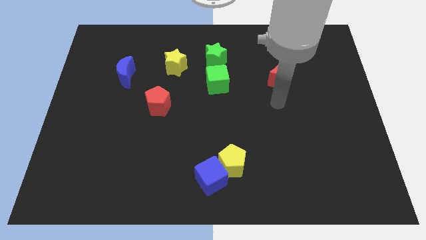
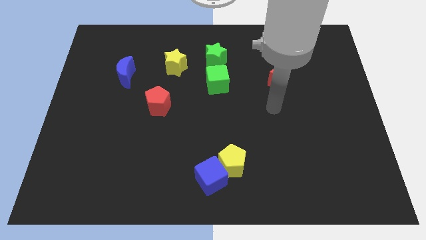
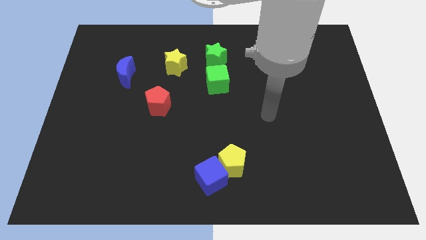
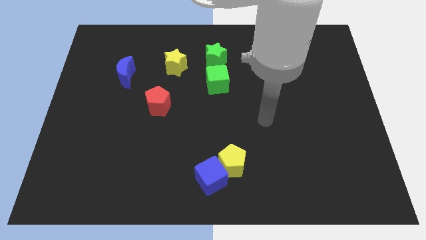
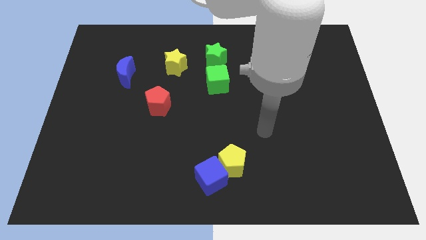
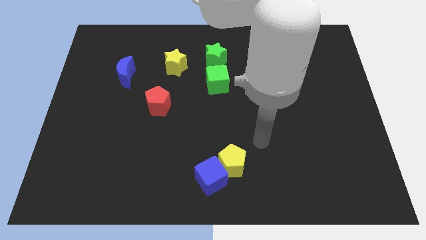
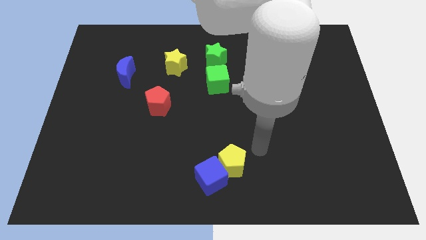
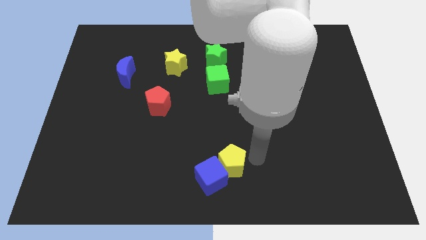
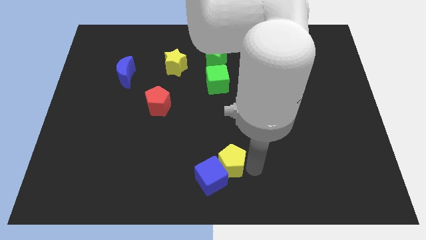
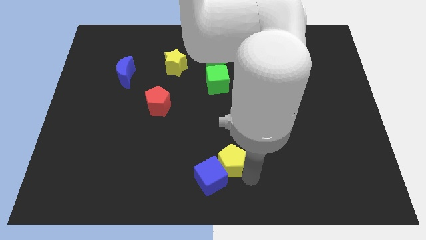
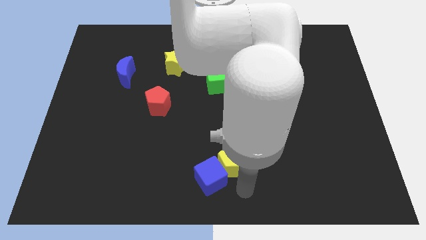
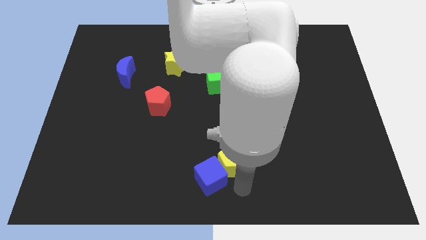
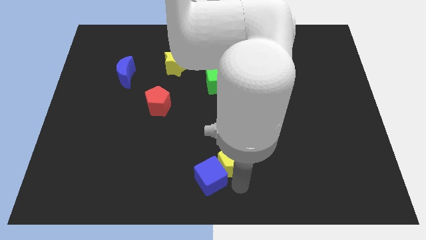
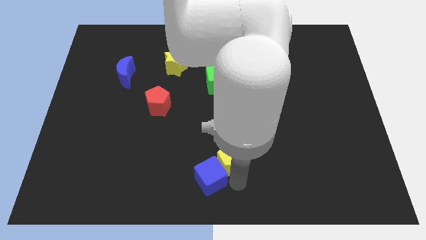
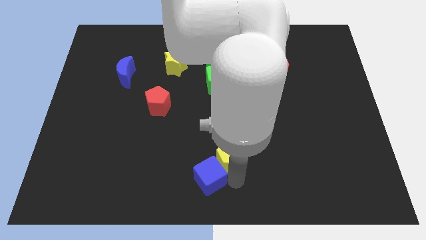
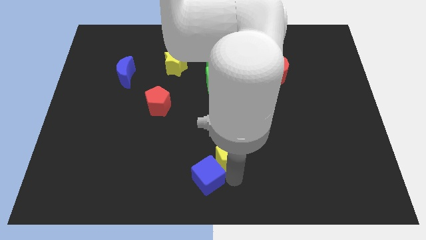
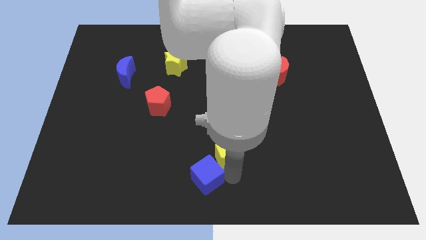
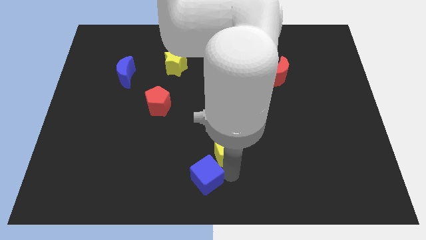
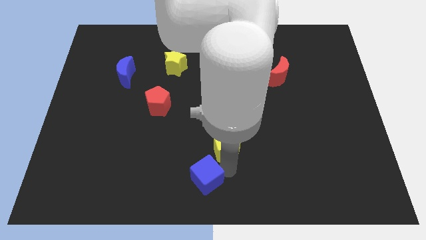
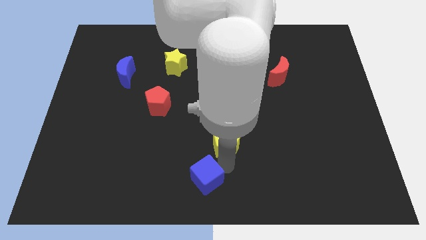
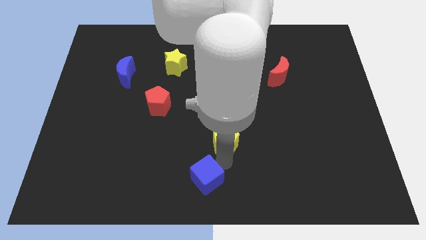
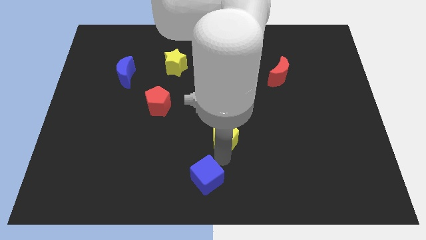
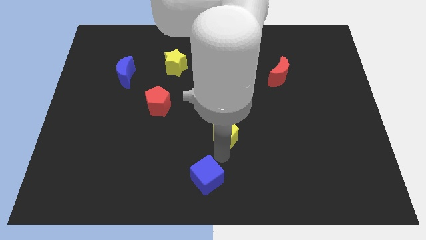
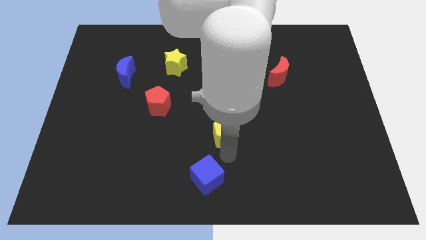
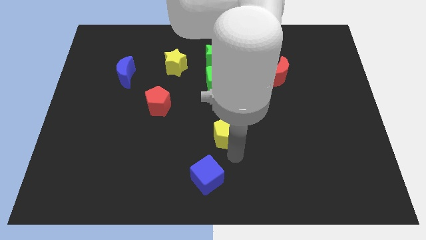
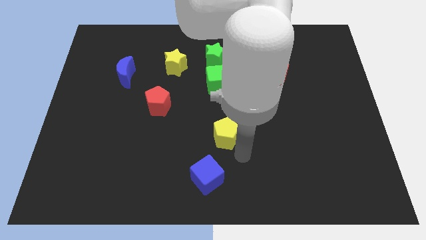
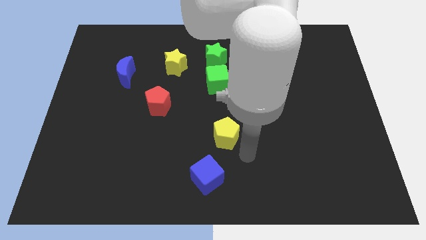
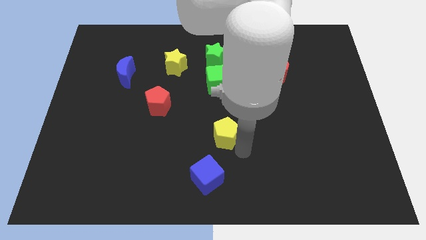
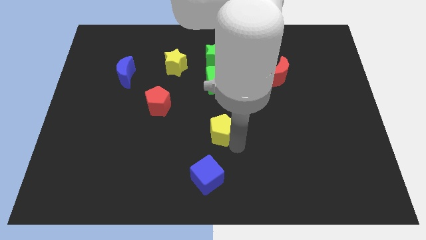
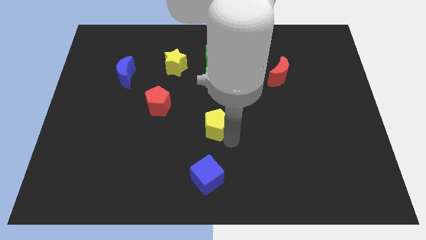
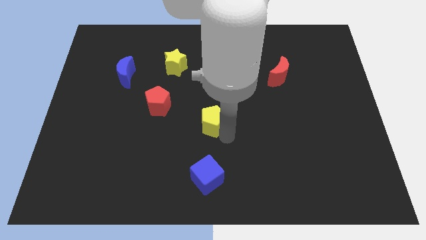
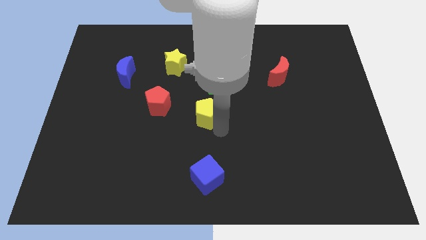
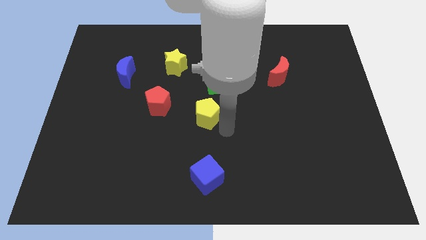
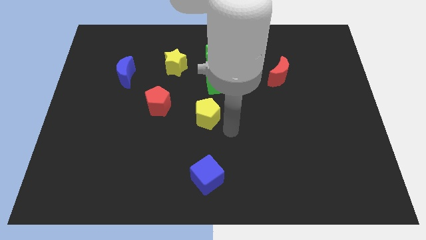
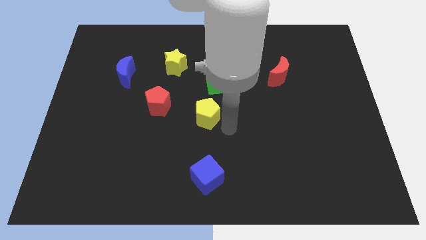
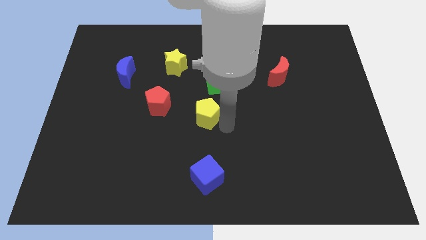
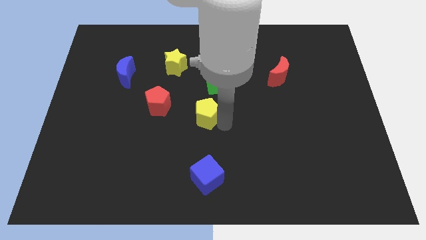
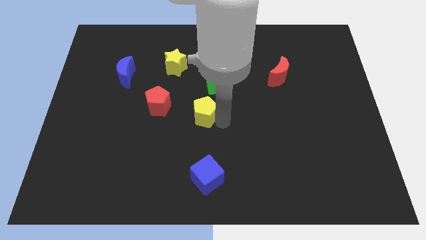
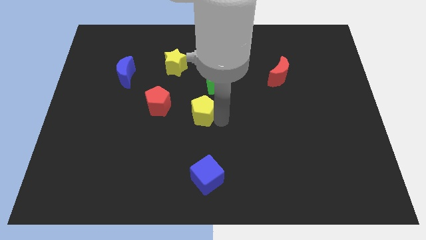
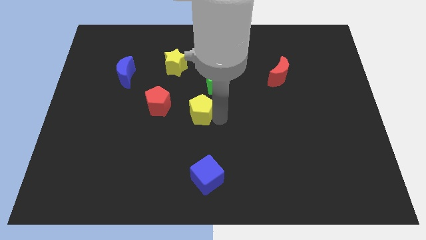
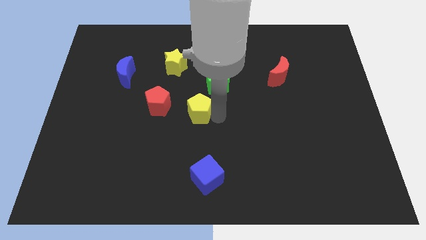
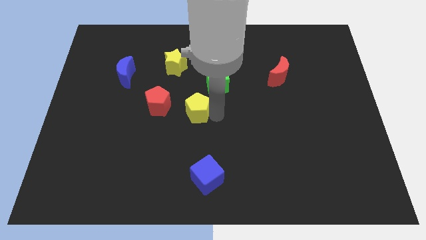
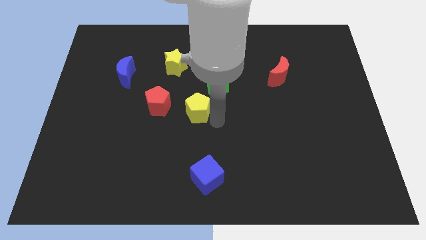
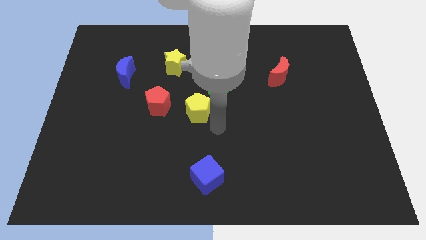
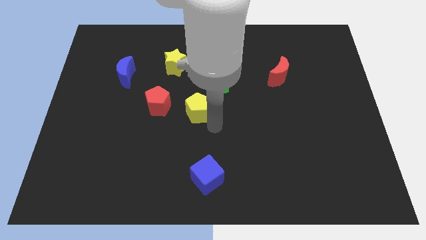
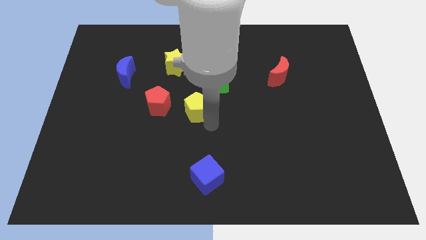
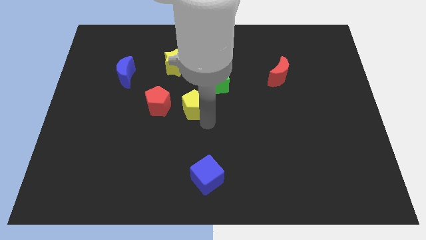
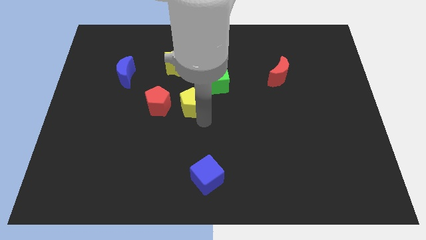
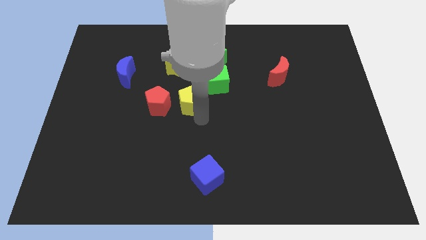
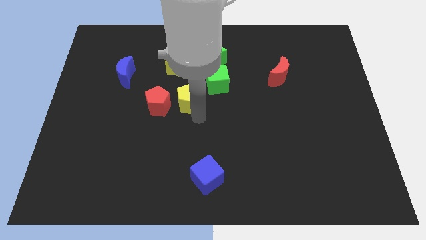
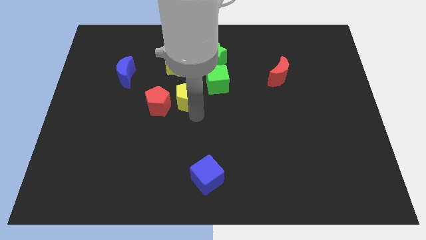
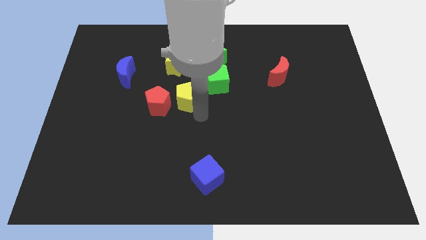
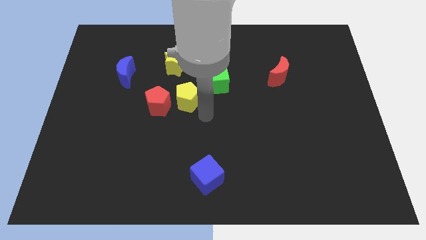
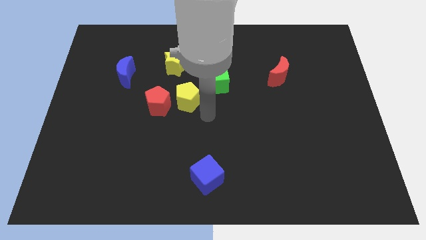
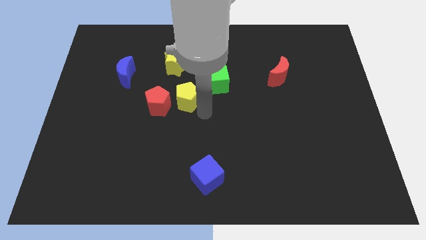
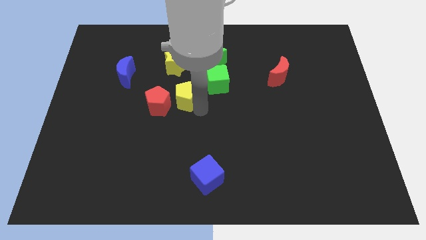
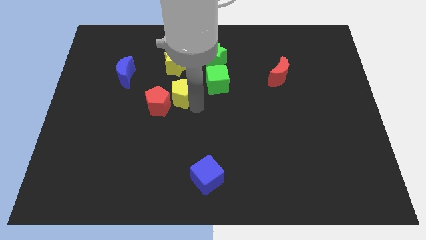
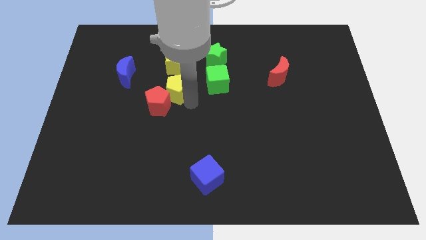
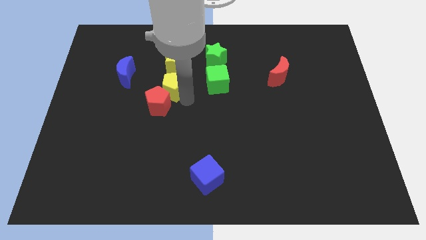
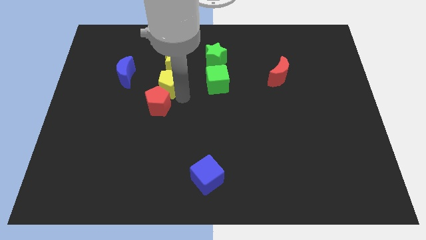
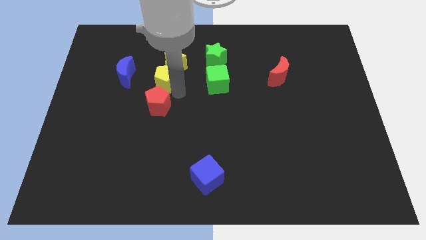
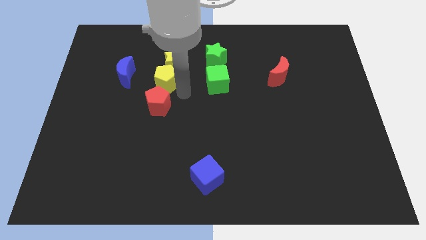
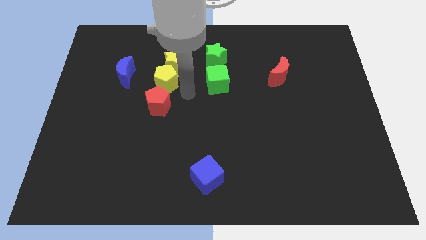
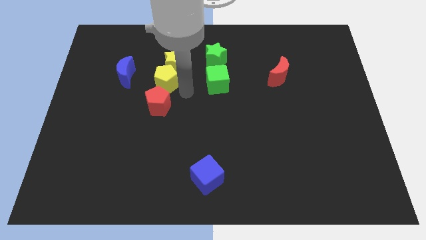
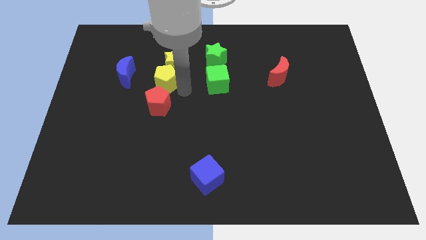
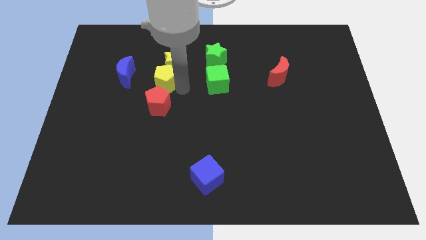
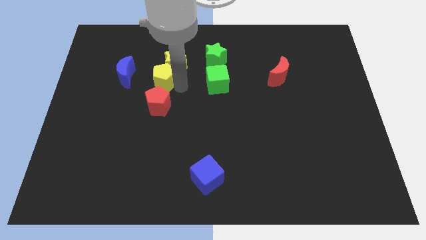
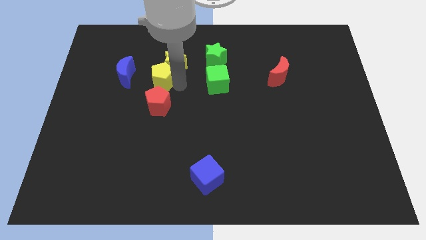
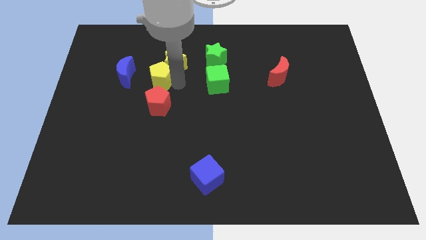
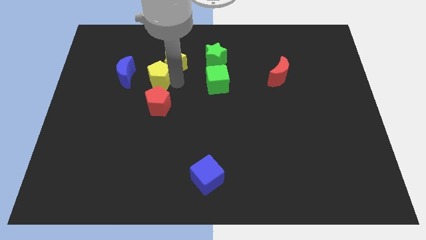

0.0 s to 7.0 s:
slide the yellow pentagon just left of the yellow star
